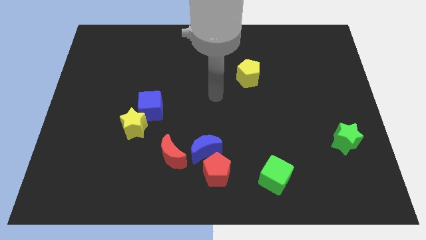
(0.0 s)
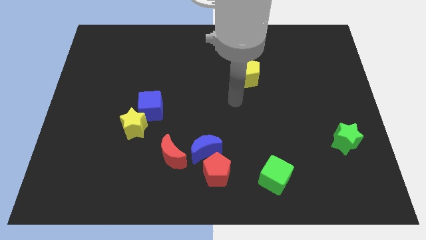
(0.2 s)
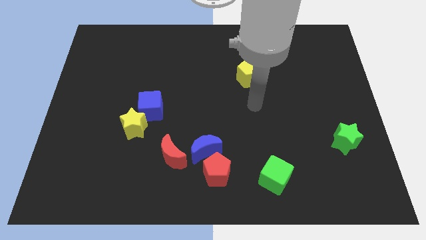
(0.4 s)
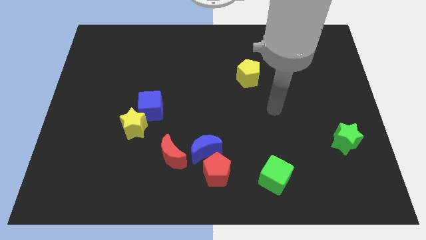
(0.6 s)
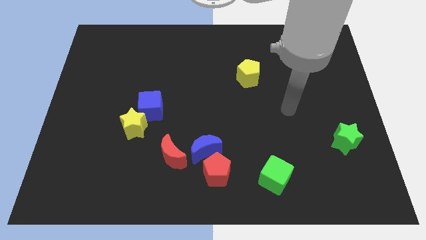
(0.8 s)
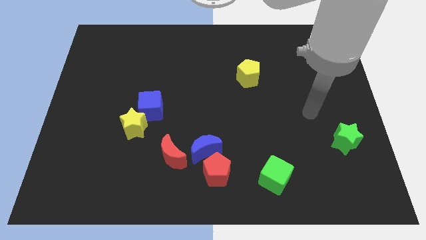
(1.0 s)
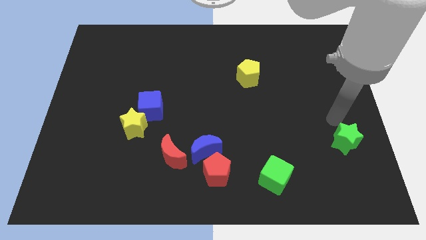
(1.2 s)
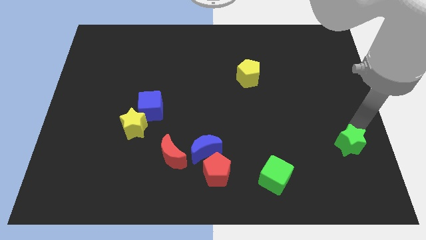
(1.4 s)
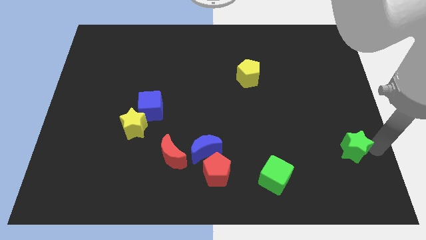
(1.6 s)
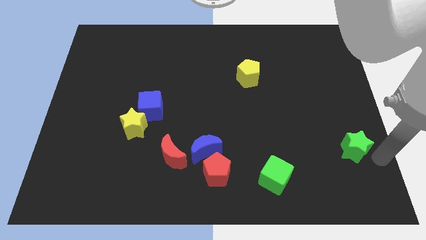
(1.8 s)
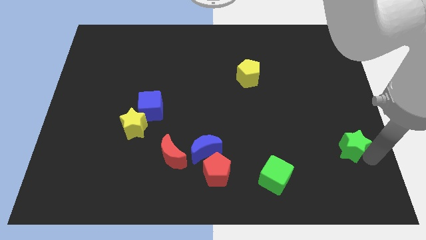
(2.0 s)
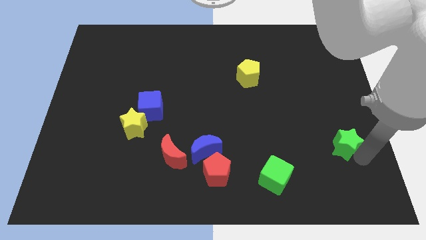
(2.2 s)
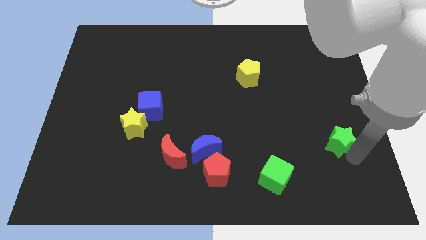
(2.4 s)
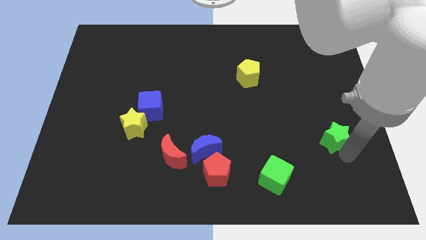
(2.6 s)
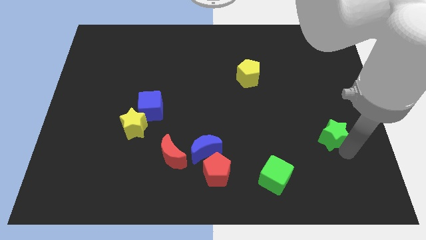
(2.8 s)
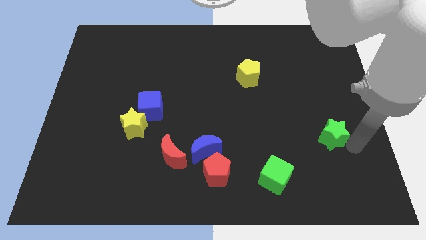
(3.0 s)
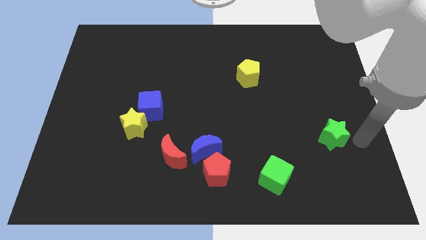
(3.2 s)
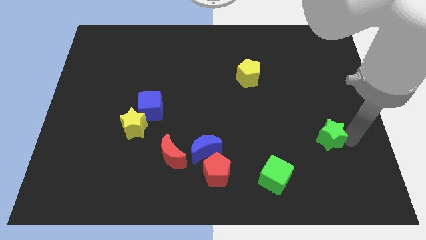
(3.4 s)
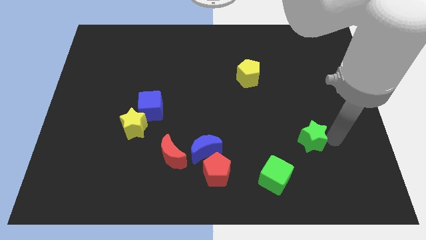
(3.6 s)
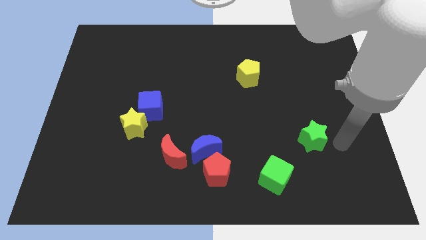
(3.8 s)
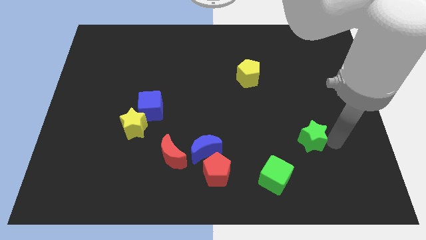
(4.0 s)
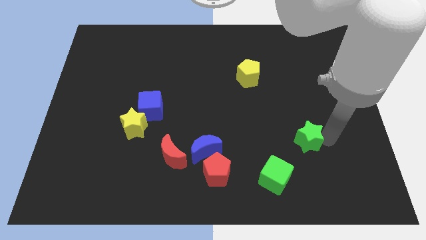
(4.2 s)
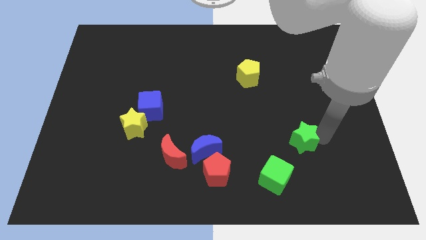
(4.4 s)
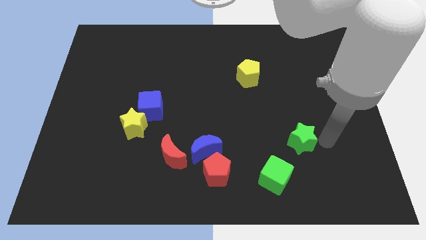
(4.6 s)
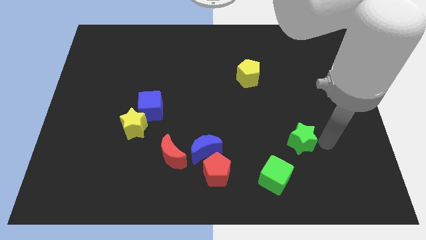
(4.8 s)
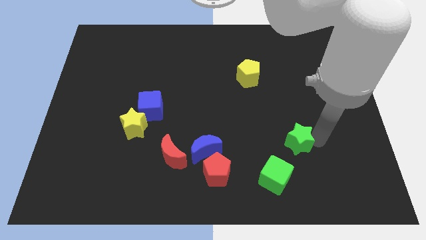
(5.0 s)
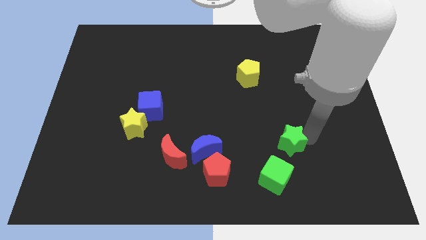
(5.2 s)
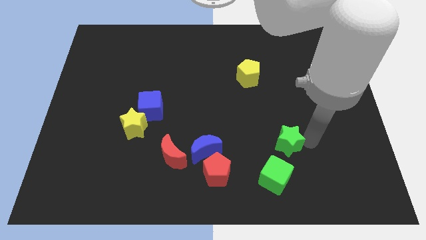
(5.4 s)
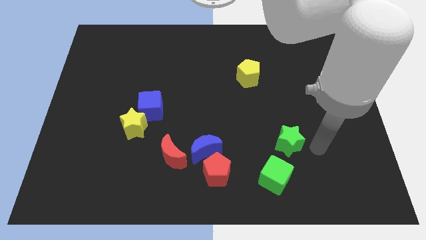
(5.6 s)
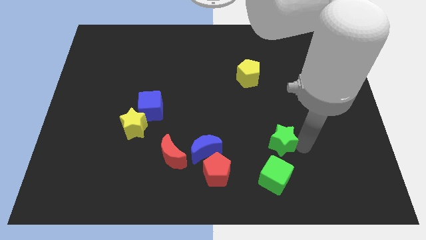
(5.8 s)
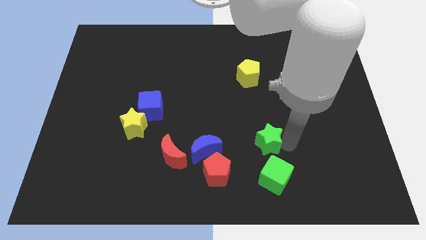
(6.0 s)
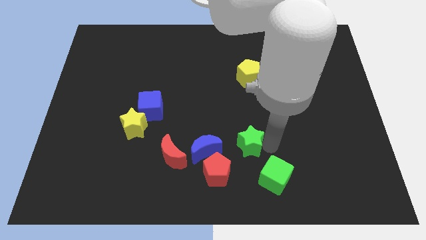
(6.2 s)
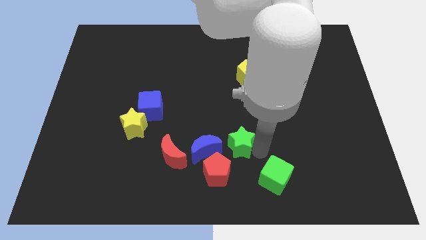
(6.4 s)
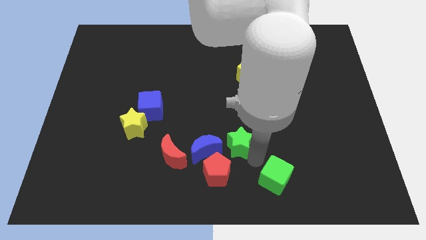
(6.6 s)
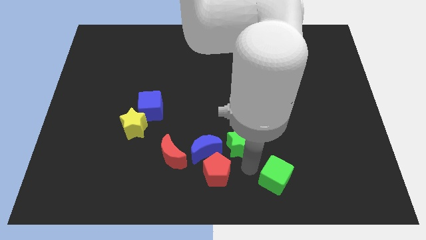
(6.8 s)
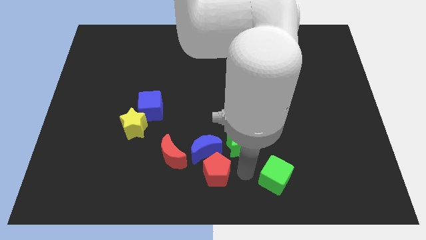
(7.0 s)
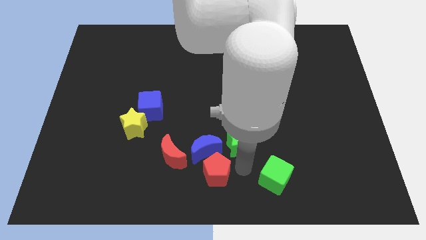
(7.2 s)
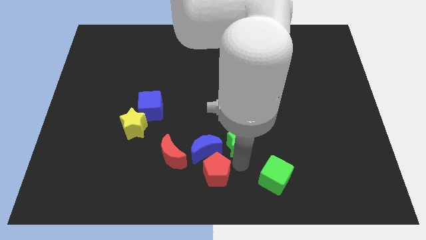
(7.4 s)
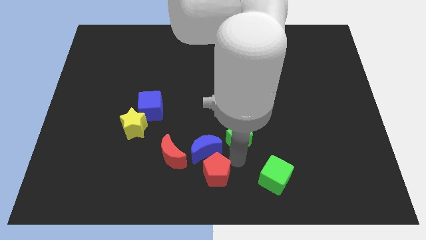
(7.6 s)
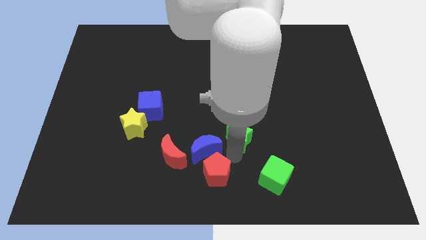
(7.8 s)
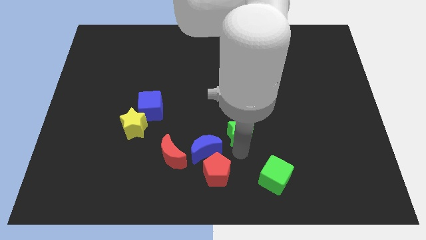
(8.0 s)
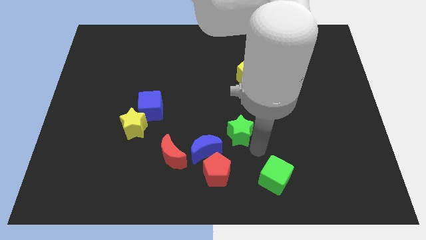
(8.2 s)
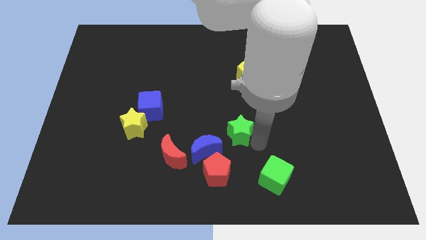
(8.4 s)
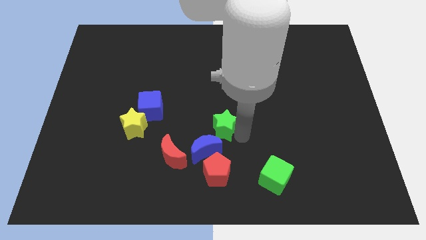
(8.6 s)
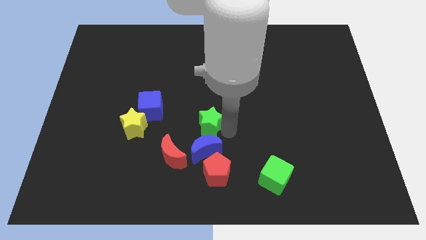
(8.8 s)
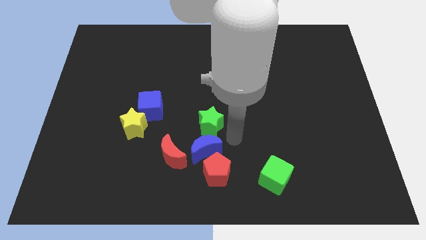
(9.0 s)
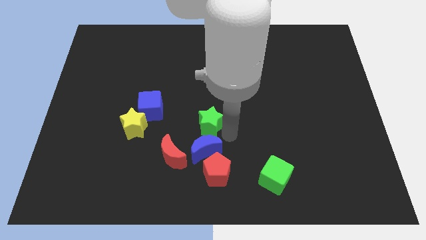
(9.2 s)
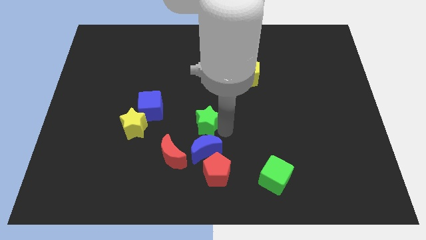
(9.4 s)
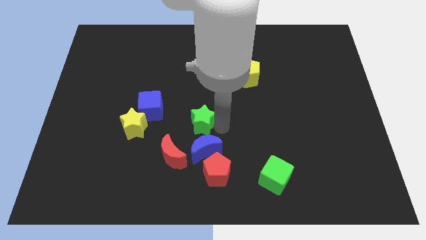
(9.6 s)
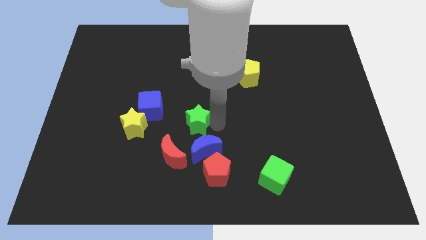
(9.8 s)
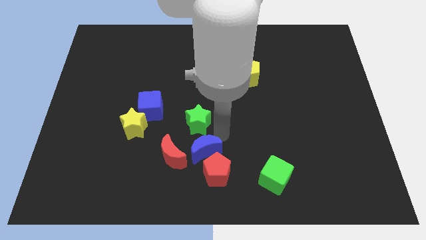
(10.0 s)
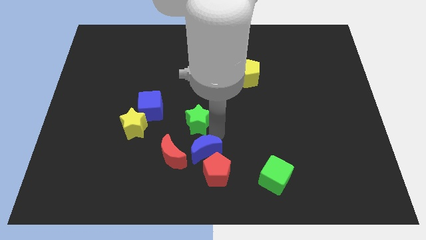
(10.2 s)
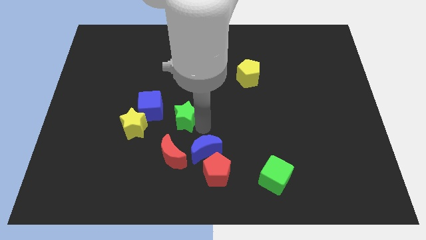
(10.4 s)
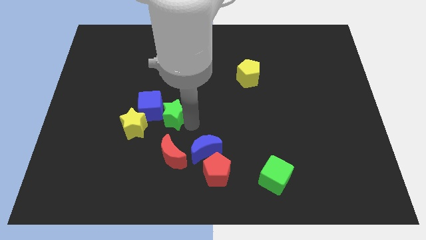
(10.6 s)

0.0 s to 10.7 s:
push the green star to the blue cube

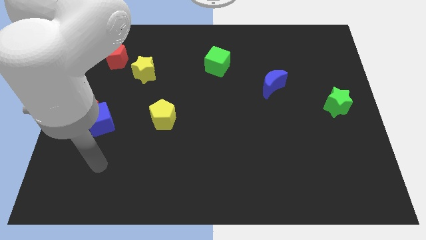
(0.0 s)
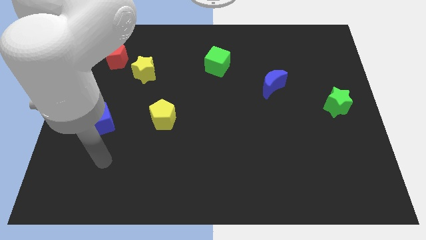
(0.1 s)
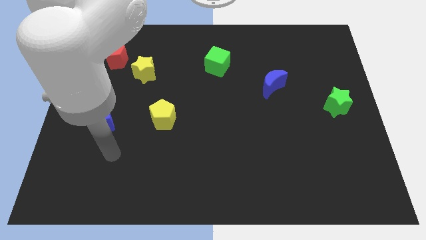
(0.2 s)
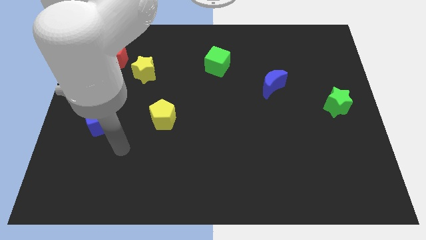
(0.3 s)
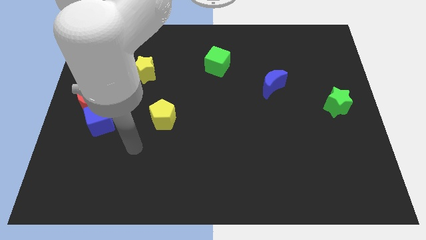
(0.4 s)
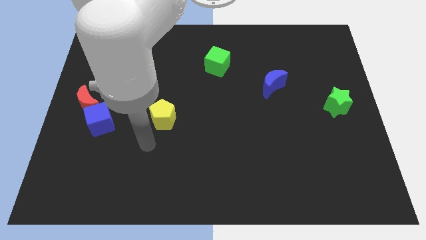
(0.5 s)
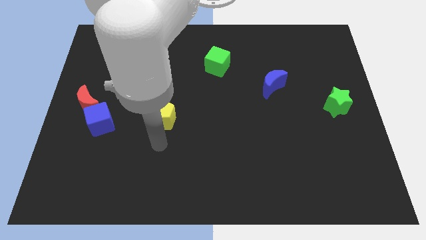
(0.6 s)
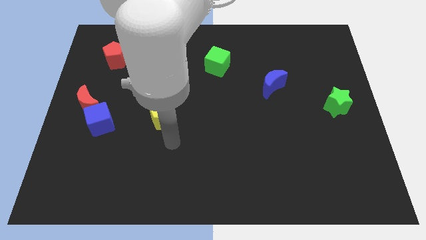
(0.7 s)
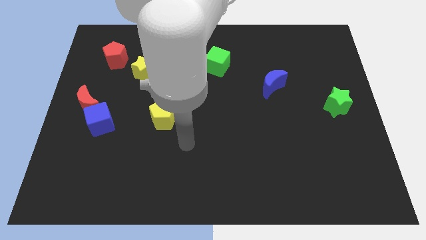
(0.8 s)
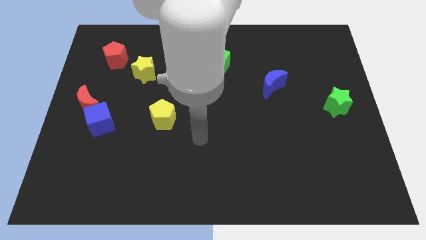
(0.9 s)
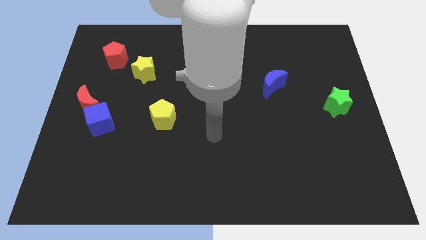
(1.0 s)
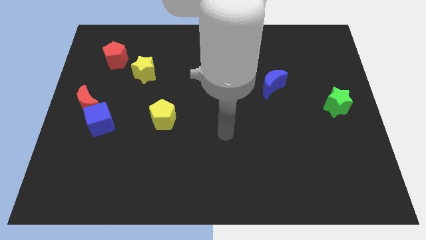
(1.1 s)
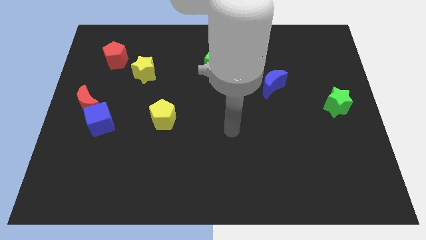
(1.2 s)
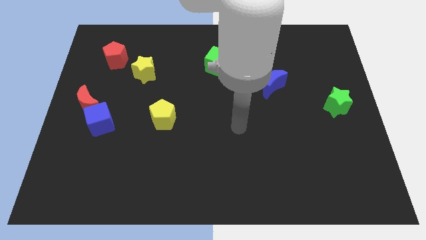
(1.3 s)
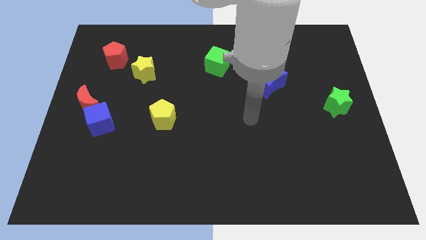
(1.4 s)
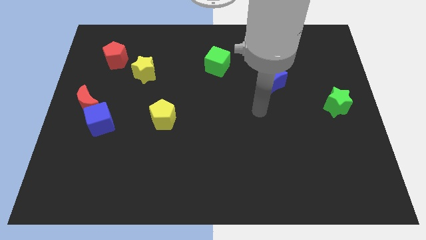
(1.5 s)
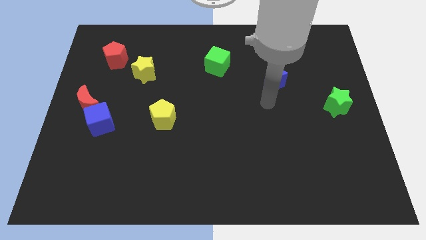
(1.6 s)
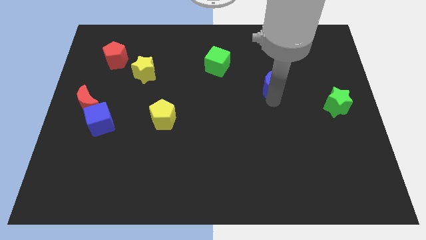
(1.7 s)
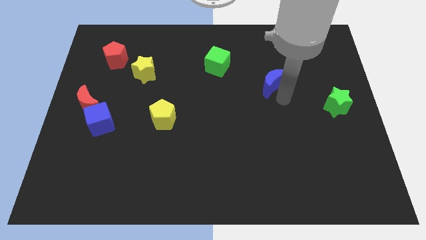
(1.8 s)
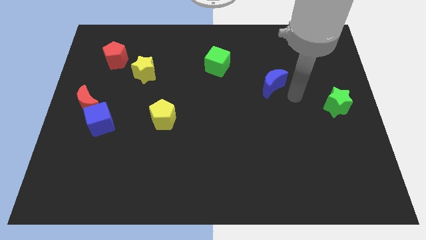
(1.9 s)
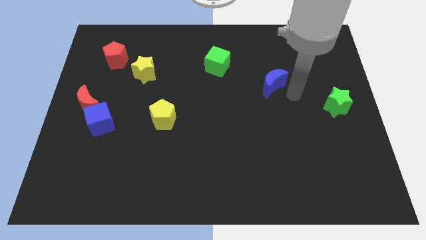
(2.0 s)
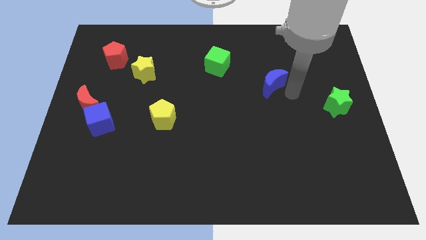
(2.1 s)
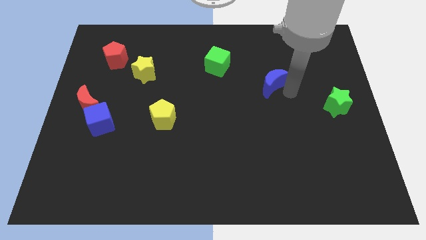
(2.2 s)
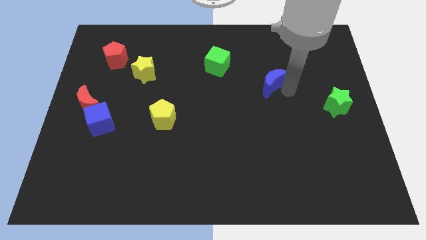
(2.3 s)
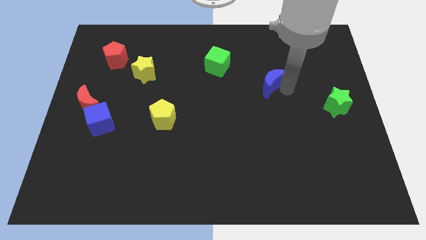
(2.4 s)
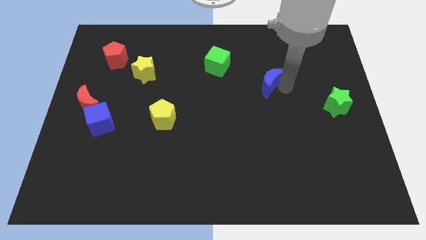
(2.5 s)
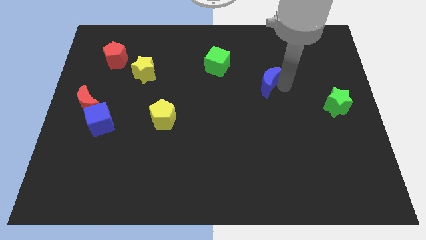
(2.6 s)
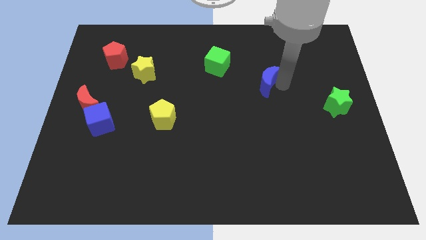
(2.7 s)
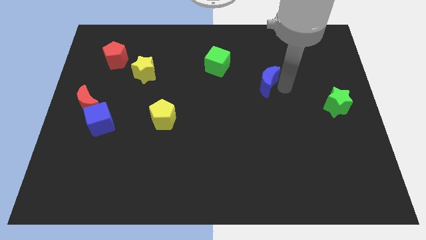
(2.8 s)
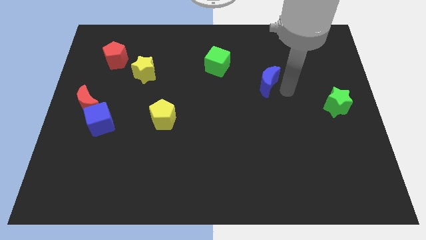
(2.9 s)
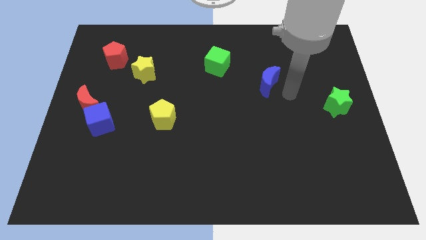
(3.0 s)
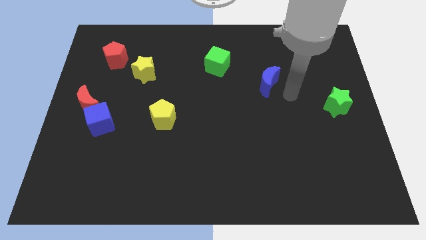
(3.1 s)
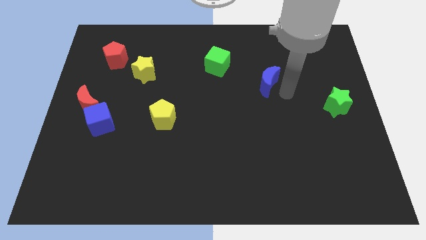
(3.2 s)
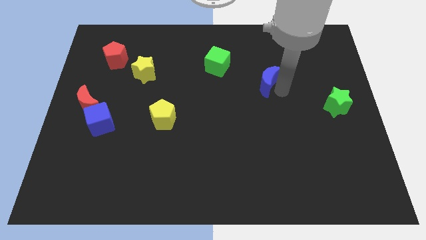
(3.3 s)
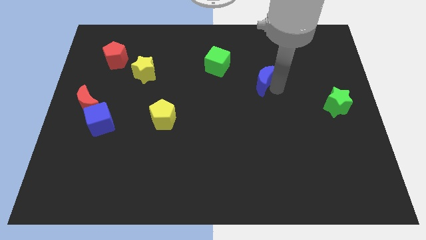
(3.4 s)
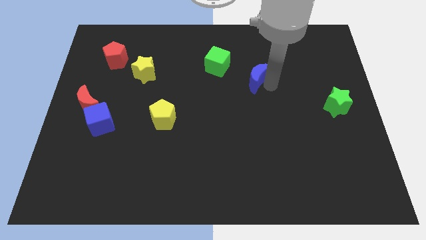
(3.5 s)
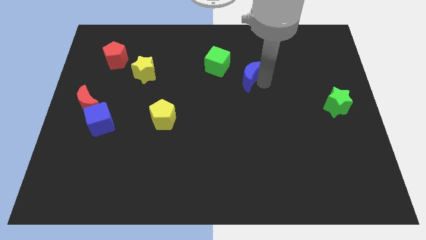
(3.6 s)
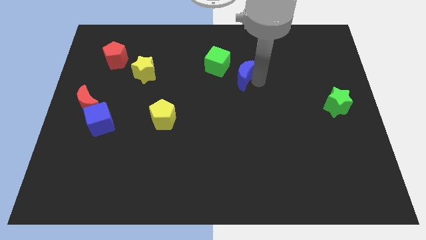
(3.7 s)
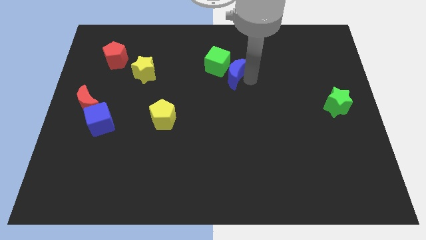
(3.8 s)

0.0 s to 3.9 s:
slide the blue moon towards the green cube
